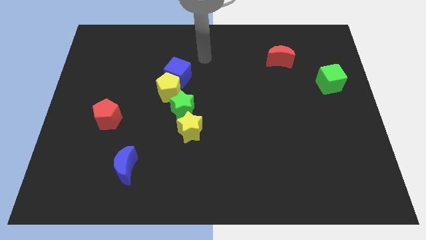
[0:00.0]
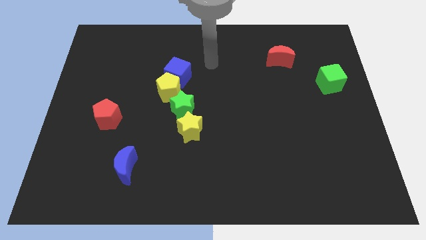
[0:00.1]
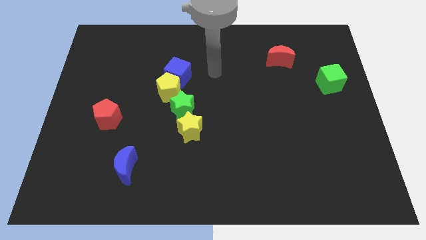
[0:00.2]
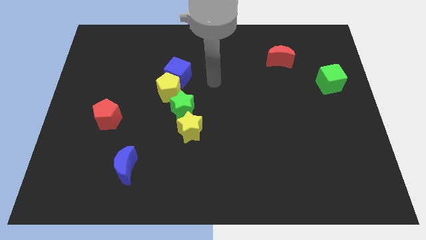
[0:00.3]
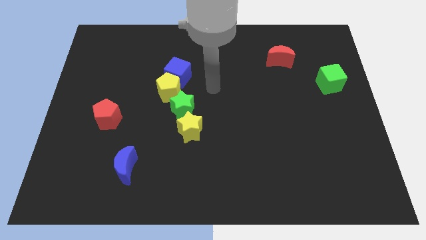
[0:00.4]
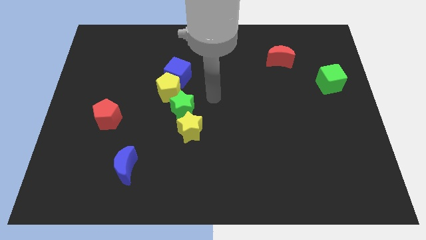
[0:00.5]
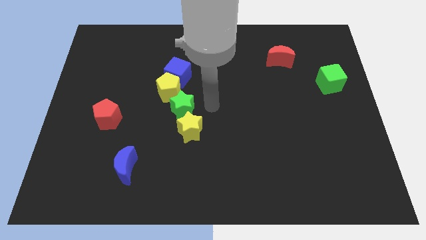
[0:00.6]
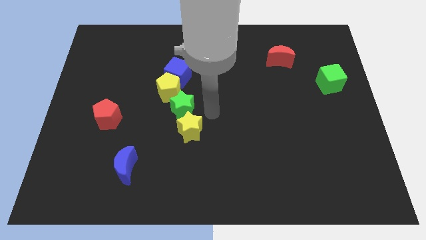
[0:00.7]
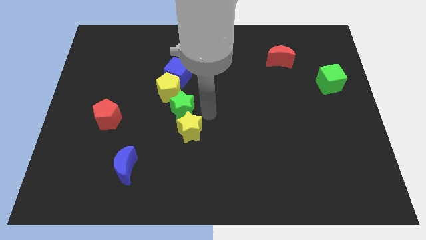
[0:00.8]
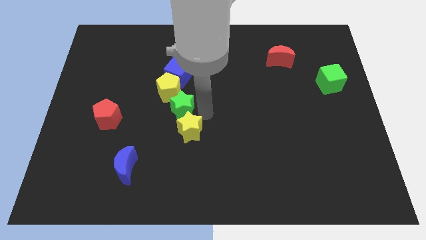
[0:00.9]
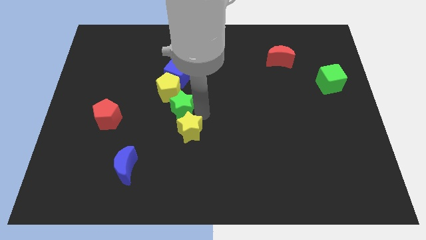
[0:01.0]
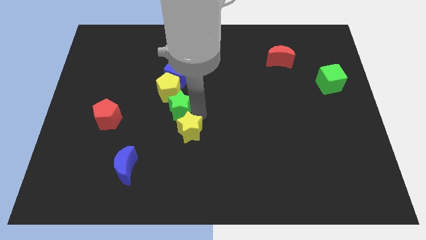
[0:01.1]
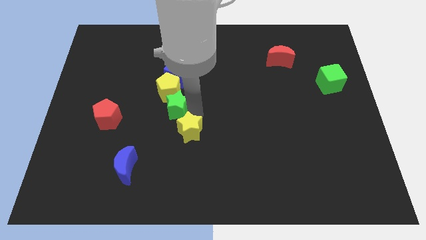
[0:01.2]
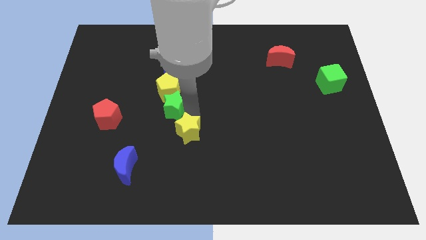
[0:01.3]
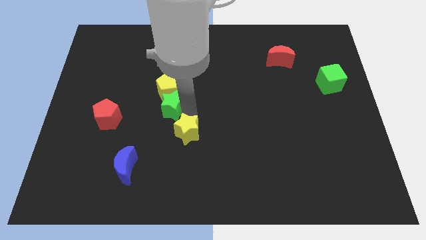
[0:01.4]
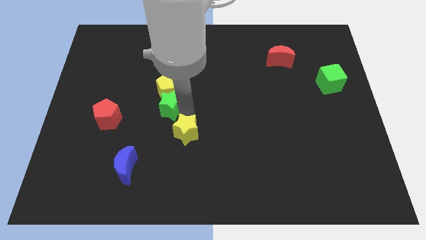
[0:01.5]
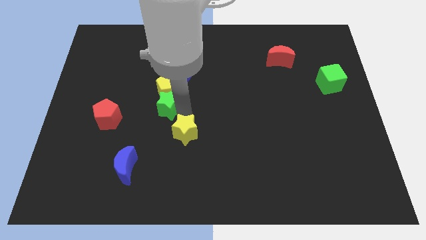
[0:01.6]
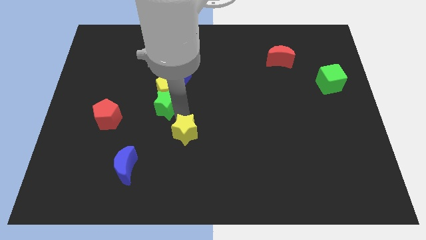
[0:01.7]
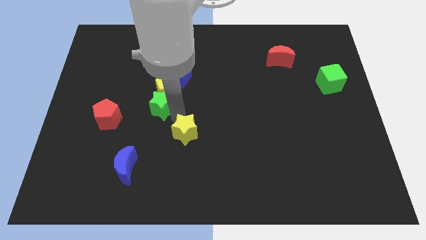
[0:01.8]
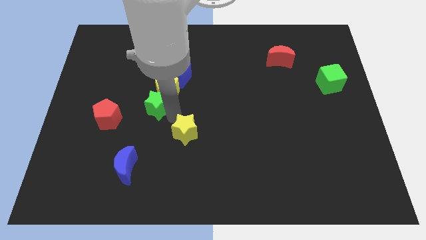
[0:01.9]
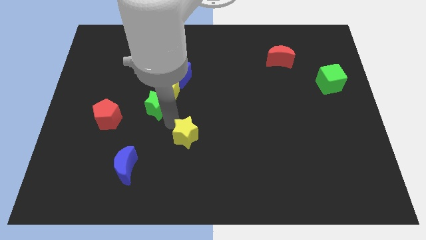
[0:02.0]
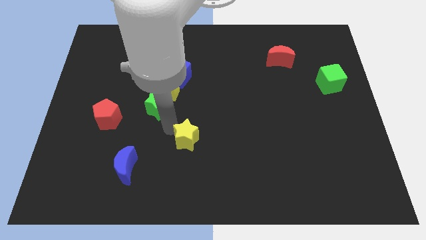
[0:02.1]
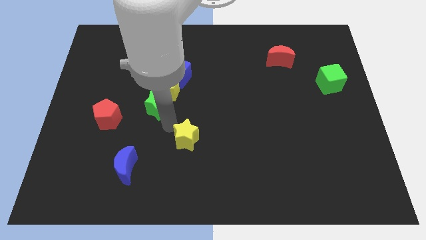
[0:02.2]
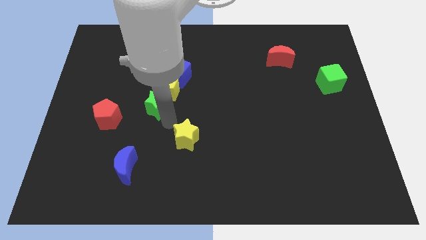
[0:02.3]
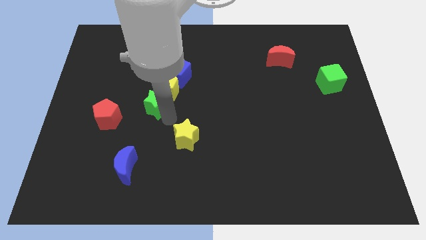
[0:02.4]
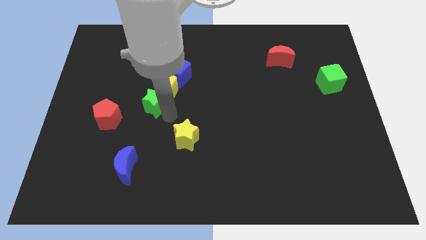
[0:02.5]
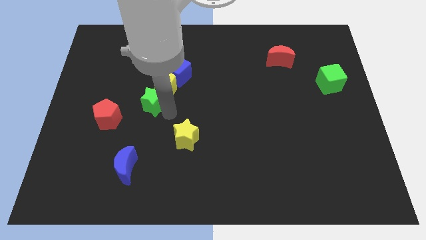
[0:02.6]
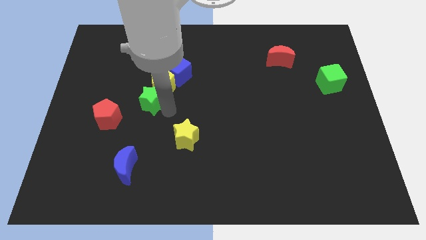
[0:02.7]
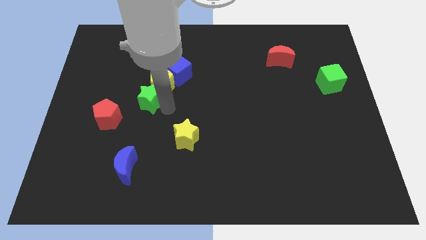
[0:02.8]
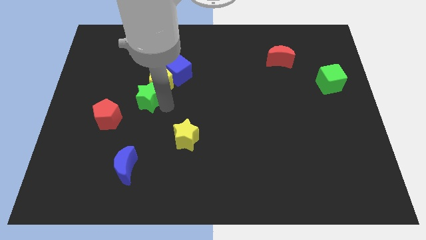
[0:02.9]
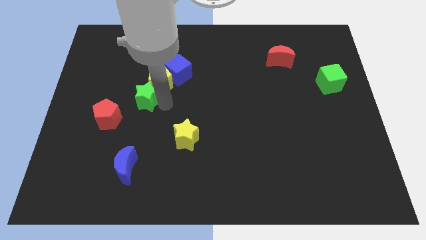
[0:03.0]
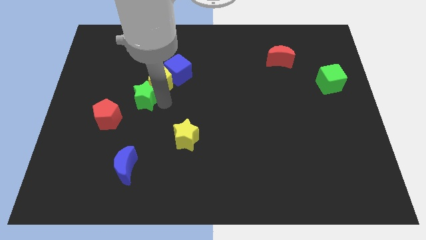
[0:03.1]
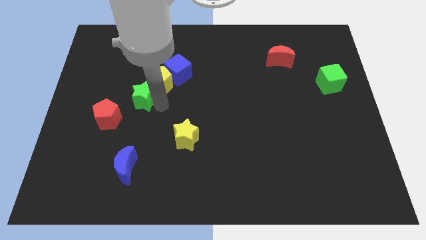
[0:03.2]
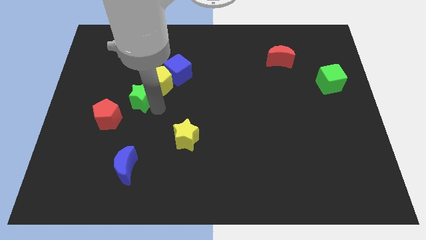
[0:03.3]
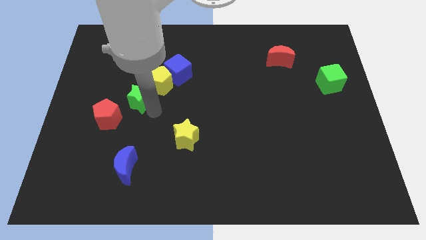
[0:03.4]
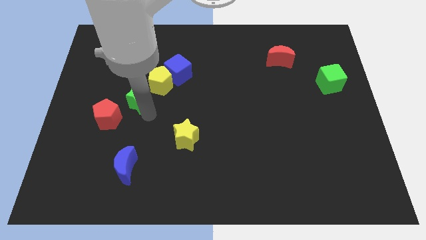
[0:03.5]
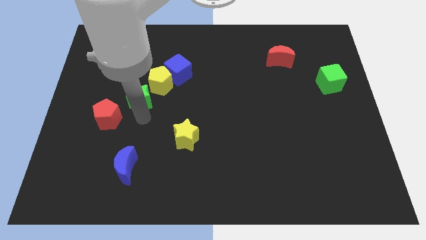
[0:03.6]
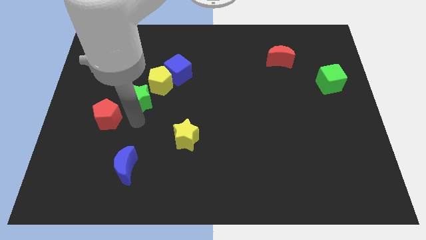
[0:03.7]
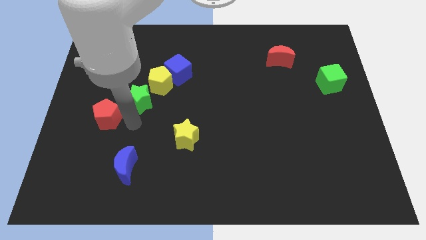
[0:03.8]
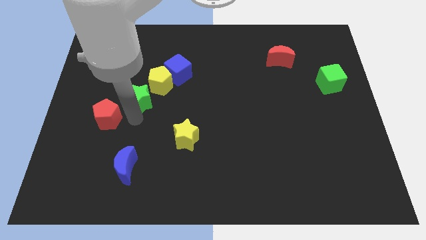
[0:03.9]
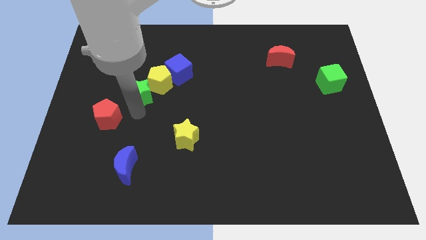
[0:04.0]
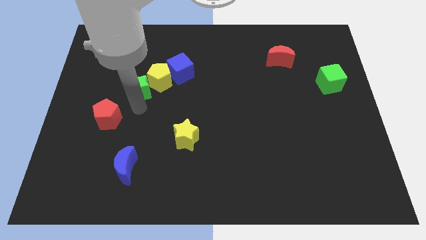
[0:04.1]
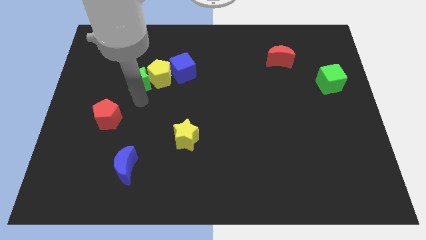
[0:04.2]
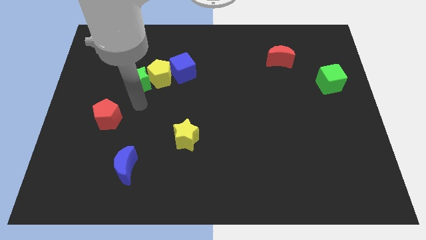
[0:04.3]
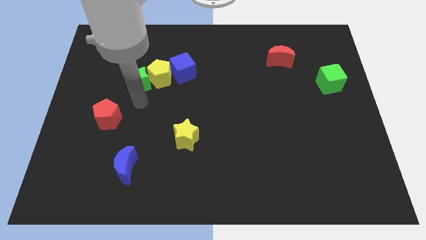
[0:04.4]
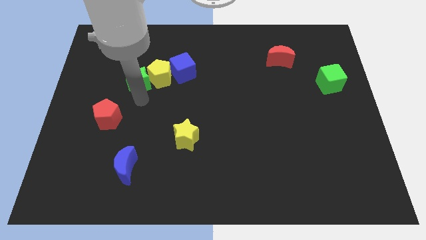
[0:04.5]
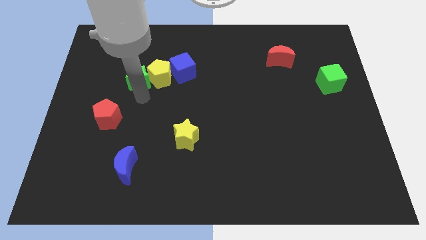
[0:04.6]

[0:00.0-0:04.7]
push the green star to the top left side of the yellow pentagon

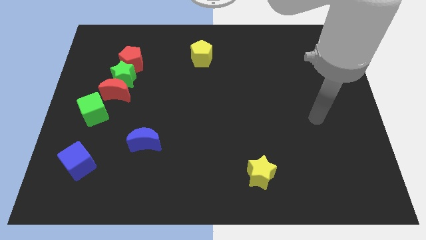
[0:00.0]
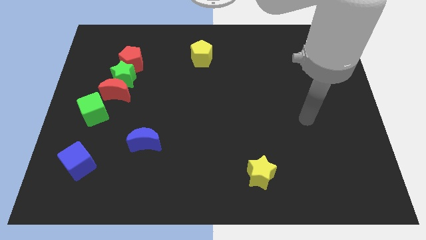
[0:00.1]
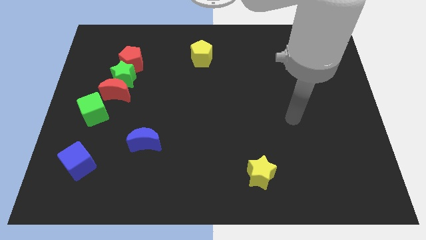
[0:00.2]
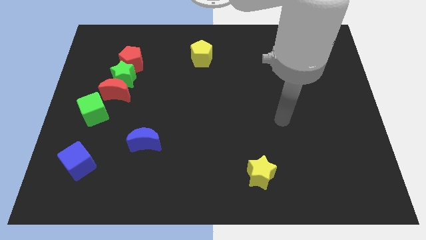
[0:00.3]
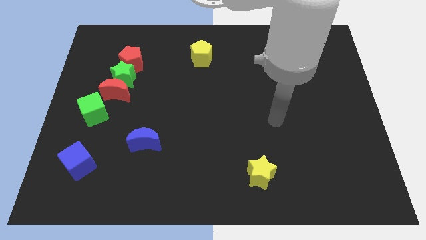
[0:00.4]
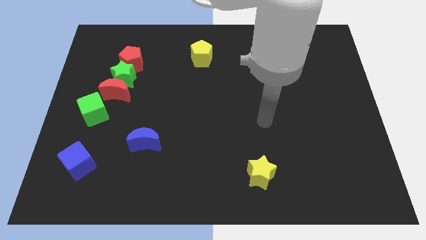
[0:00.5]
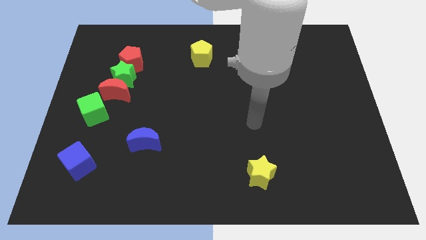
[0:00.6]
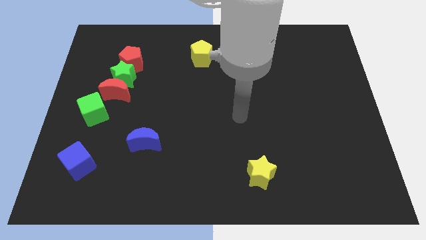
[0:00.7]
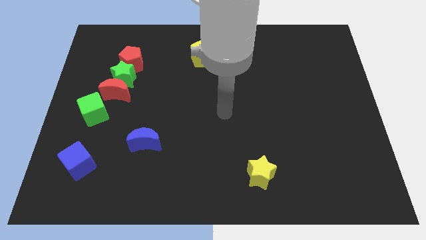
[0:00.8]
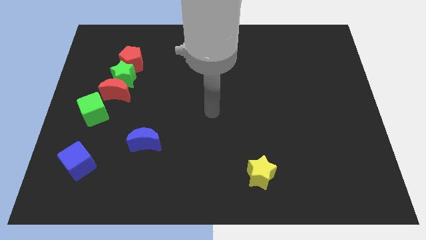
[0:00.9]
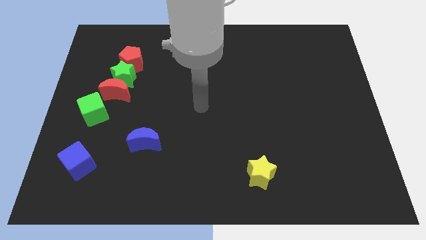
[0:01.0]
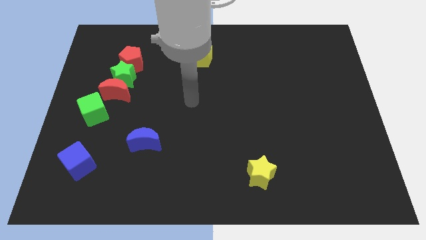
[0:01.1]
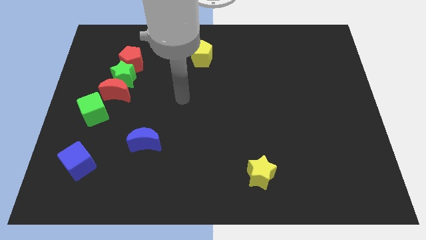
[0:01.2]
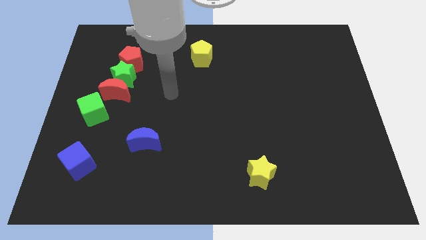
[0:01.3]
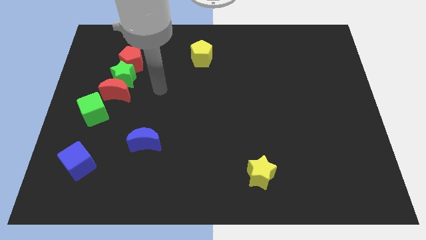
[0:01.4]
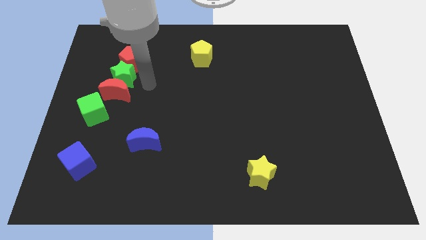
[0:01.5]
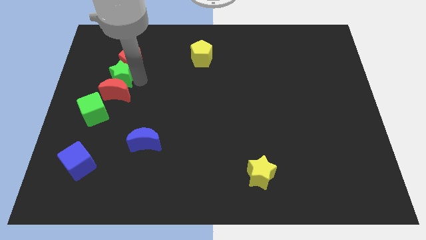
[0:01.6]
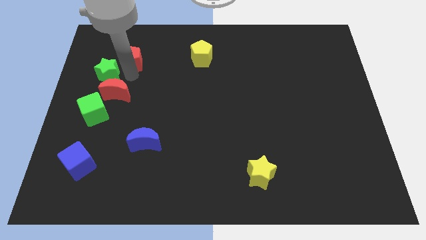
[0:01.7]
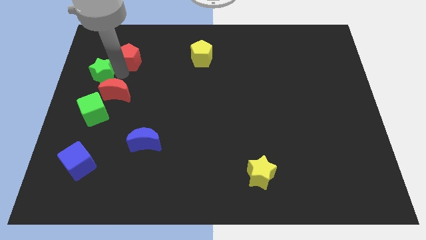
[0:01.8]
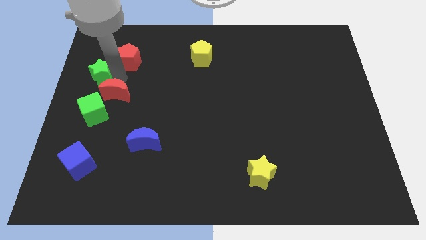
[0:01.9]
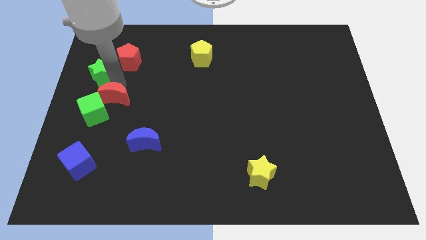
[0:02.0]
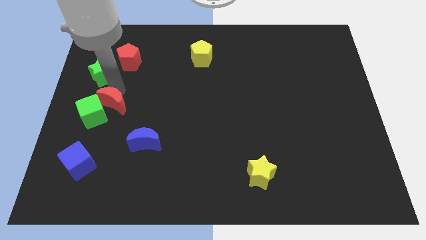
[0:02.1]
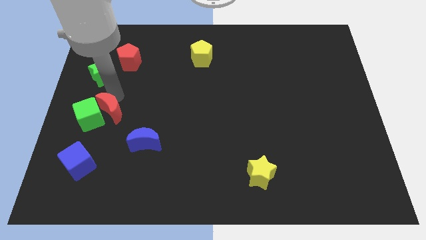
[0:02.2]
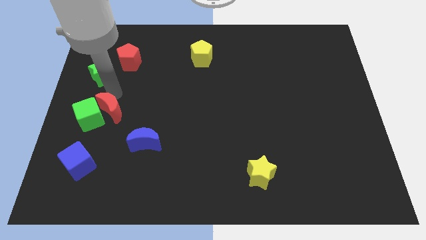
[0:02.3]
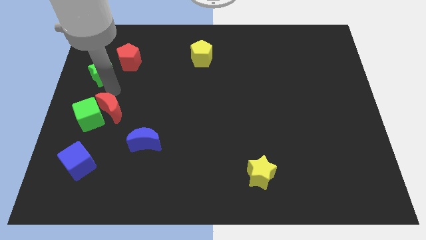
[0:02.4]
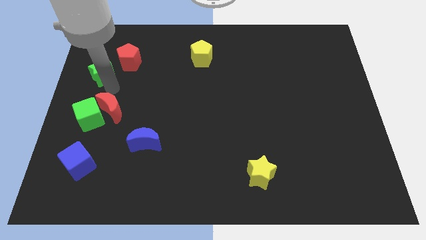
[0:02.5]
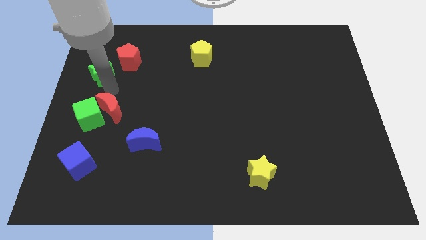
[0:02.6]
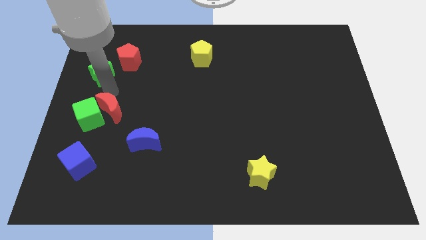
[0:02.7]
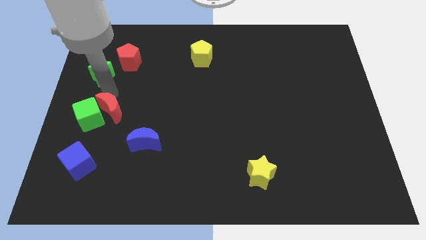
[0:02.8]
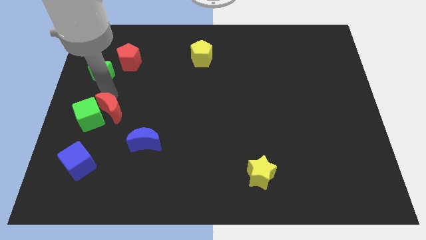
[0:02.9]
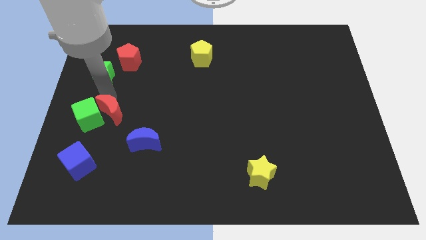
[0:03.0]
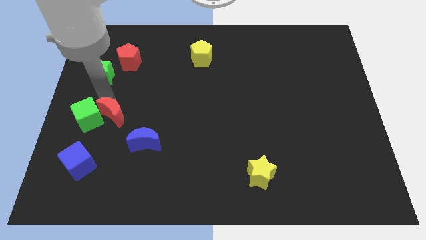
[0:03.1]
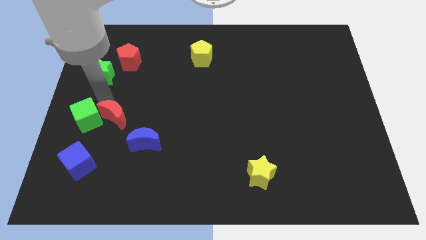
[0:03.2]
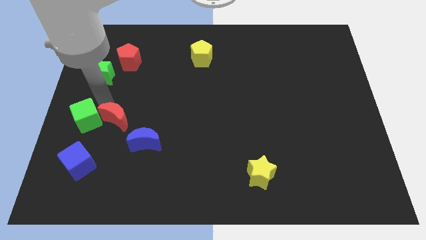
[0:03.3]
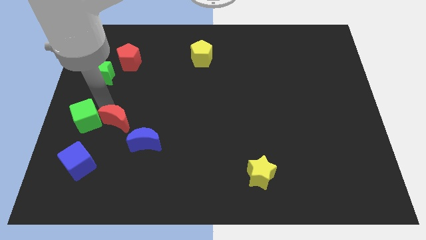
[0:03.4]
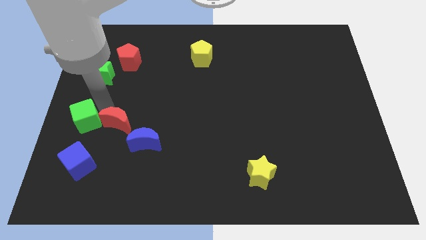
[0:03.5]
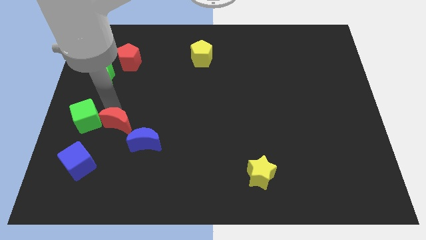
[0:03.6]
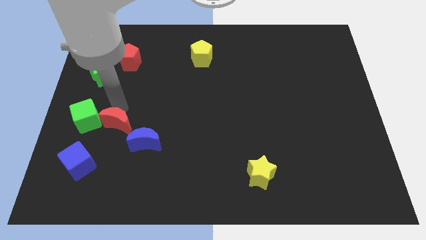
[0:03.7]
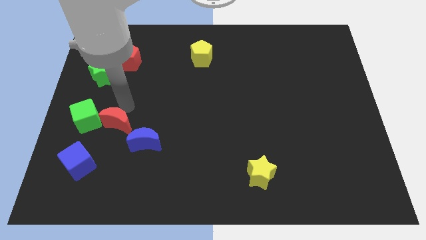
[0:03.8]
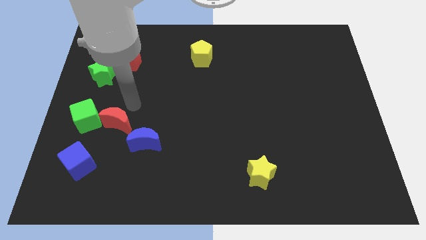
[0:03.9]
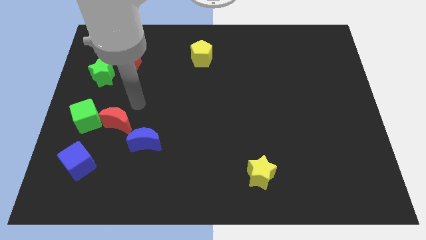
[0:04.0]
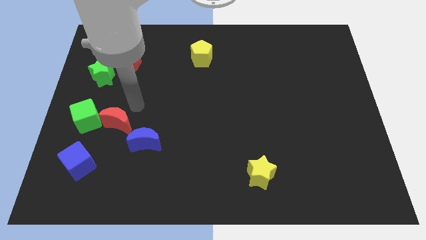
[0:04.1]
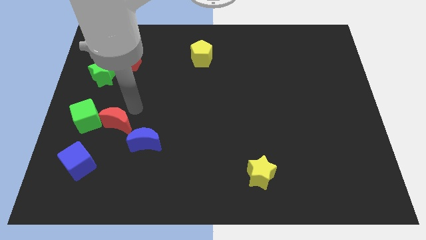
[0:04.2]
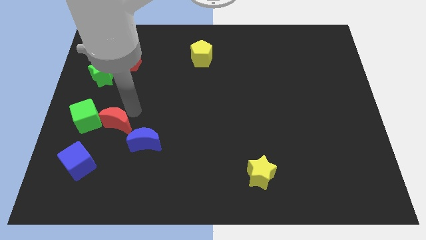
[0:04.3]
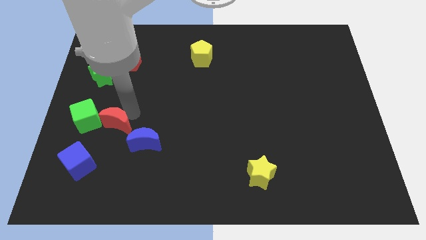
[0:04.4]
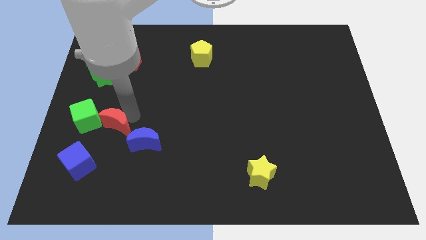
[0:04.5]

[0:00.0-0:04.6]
slide the red moon just left of the blue moon
